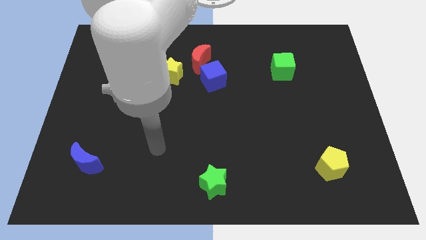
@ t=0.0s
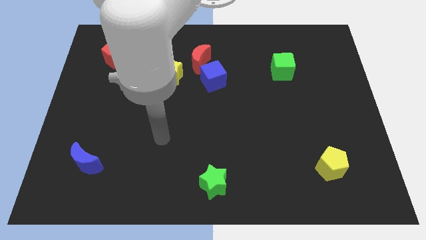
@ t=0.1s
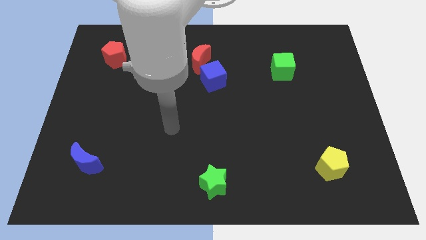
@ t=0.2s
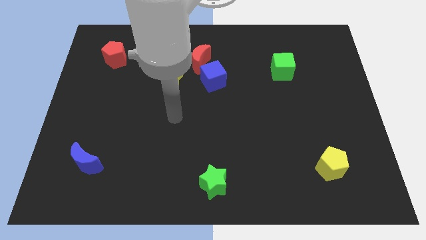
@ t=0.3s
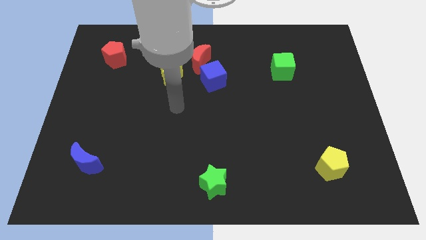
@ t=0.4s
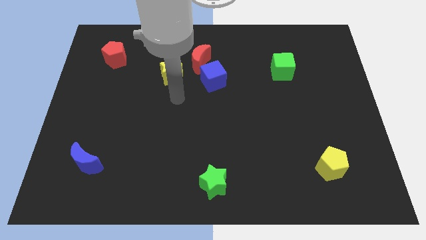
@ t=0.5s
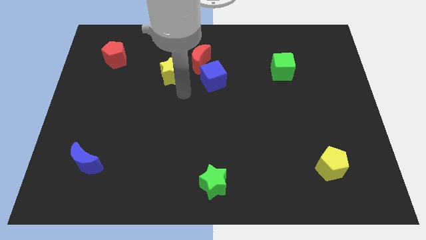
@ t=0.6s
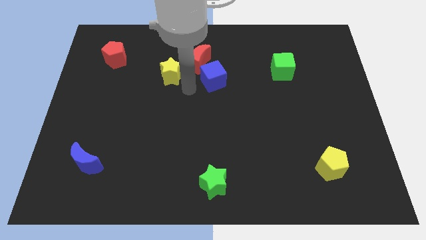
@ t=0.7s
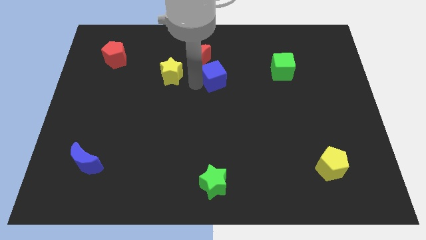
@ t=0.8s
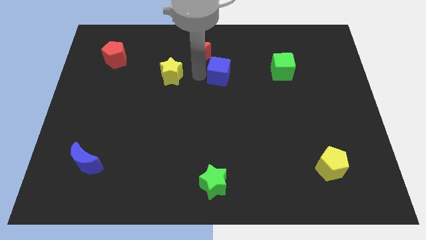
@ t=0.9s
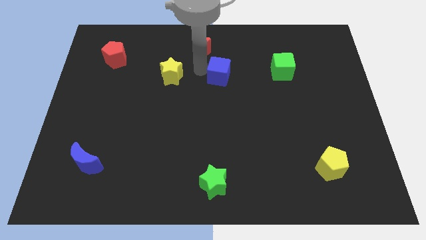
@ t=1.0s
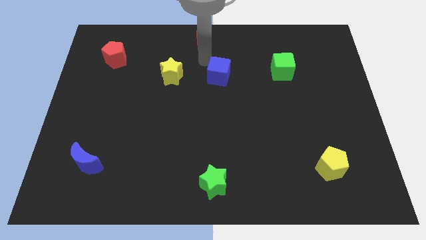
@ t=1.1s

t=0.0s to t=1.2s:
move the blue cube away from the red moon

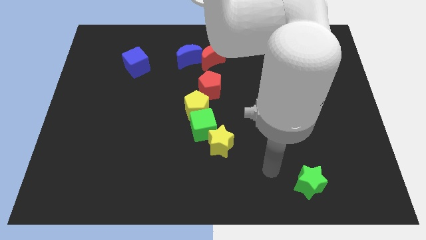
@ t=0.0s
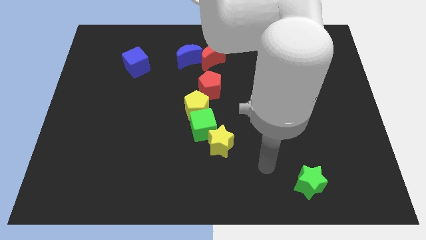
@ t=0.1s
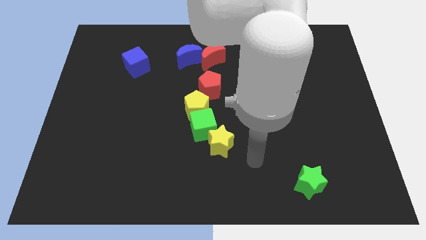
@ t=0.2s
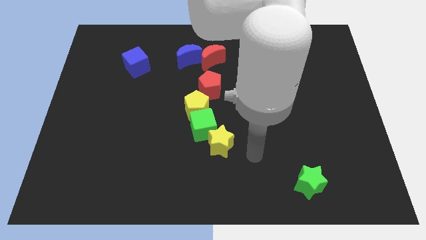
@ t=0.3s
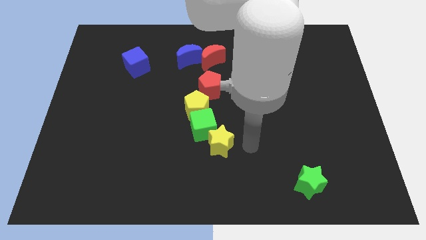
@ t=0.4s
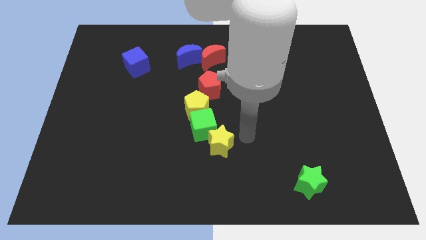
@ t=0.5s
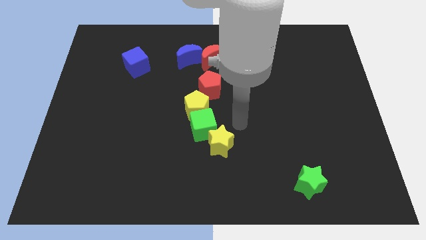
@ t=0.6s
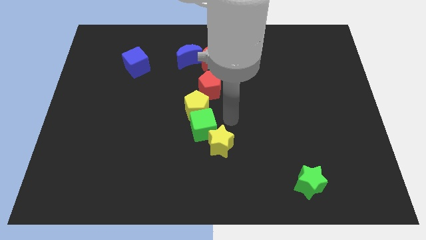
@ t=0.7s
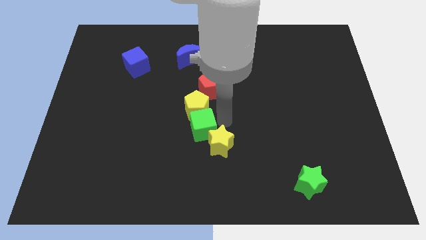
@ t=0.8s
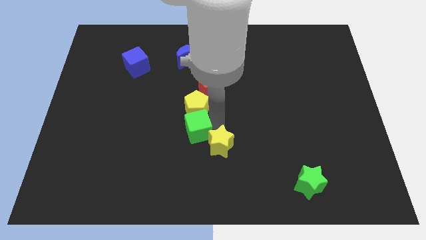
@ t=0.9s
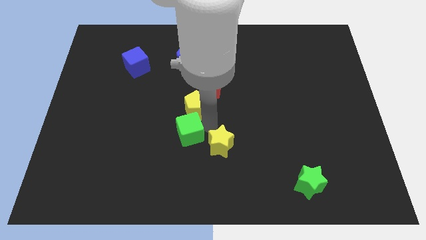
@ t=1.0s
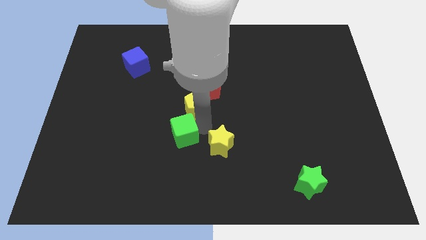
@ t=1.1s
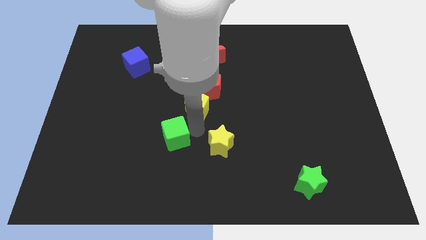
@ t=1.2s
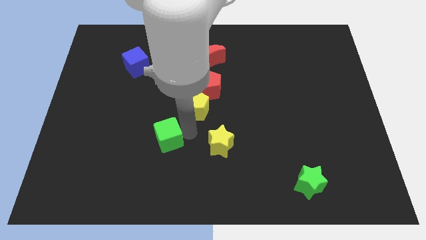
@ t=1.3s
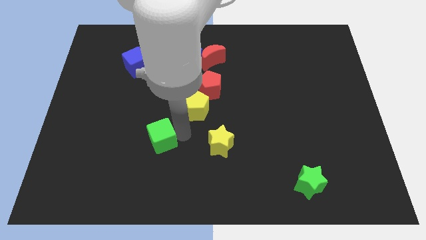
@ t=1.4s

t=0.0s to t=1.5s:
separate the green cube from the yellow pentagon and yellow star

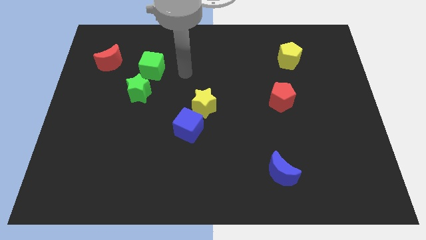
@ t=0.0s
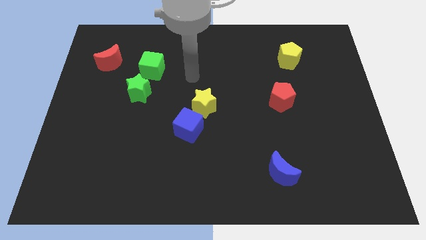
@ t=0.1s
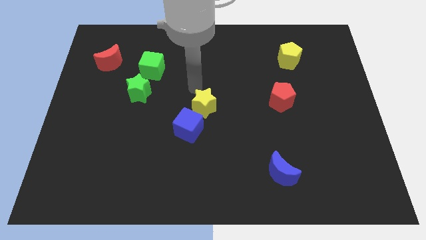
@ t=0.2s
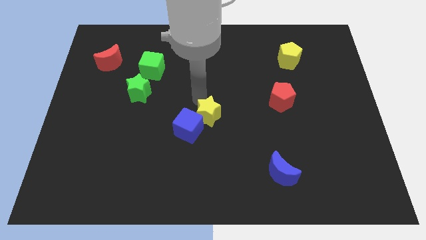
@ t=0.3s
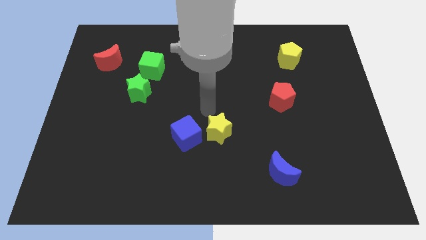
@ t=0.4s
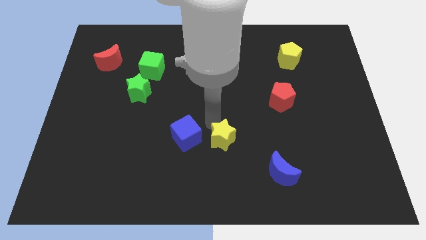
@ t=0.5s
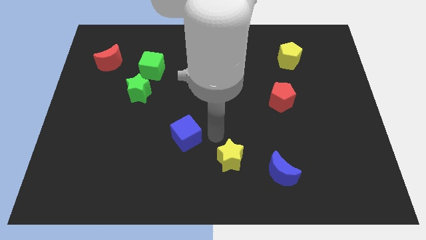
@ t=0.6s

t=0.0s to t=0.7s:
move the blue cube away from the yellow star

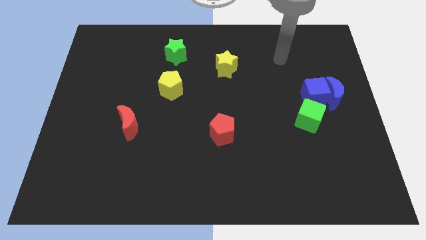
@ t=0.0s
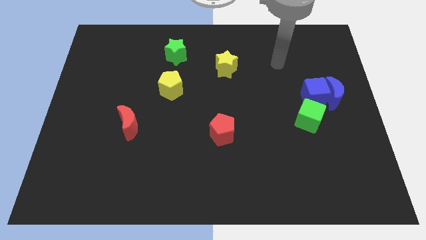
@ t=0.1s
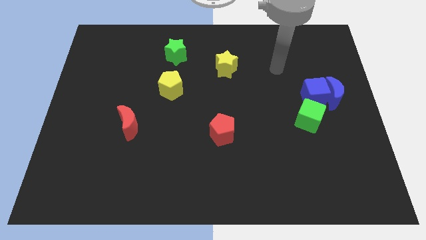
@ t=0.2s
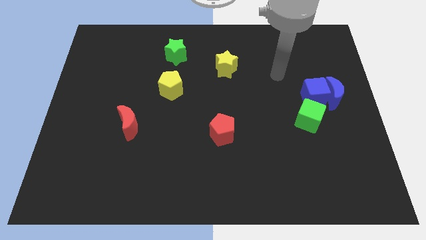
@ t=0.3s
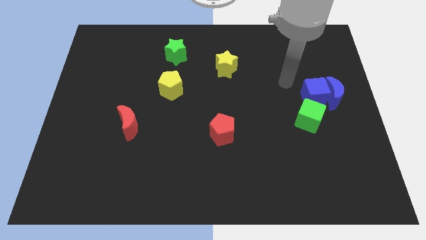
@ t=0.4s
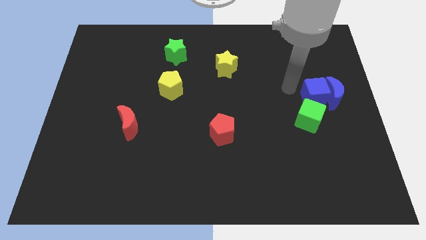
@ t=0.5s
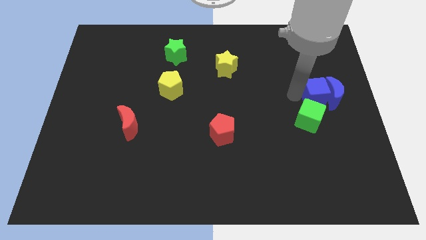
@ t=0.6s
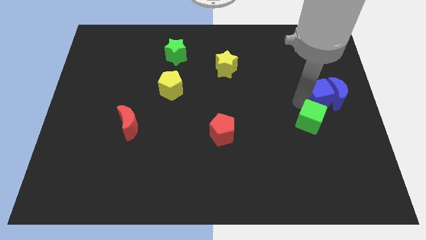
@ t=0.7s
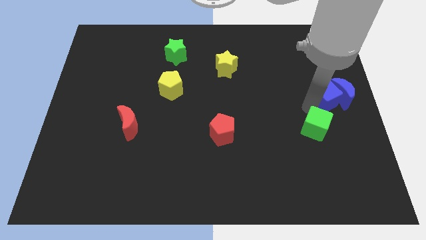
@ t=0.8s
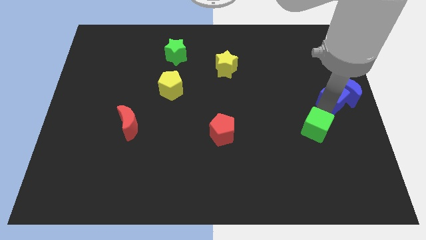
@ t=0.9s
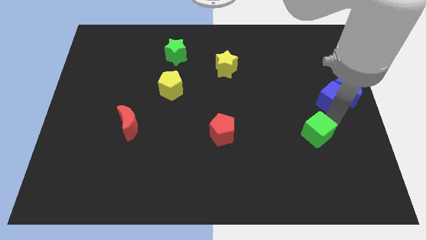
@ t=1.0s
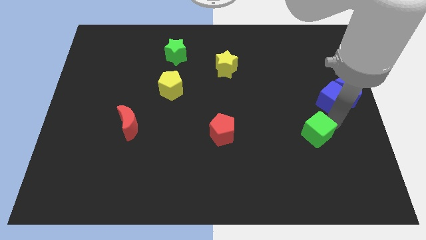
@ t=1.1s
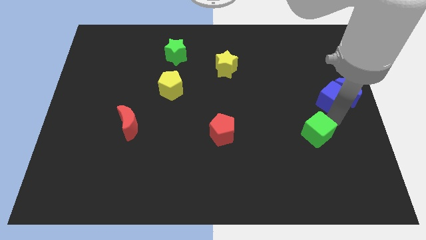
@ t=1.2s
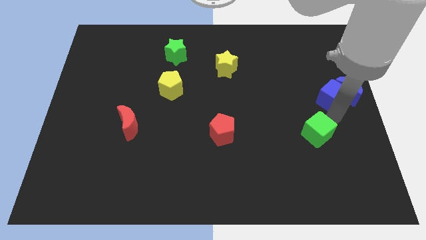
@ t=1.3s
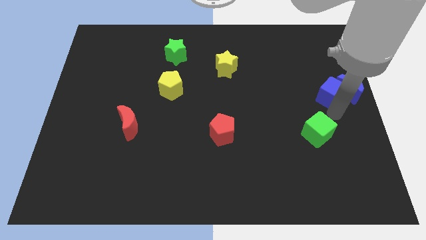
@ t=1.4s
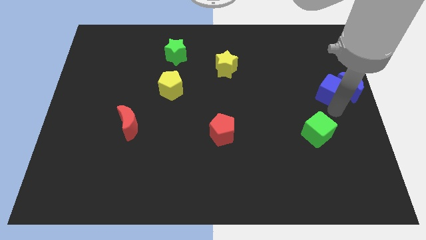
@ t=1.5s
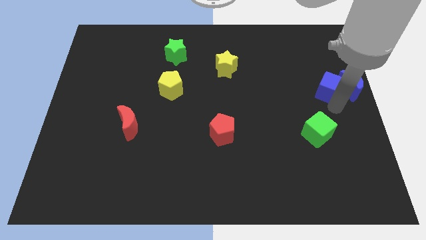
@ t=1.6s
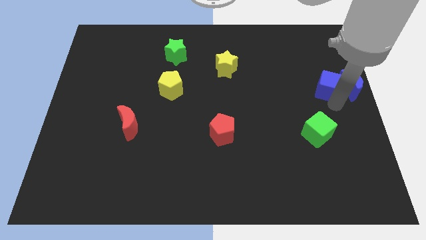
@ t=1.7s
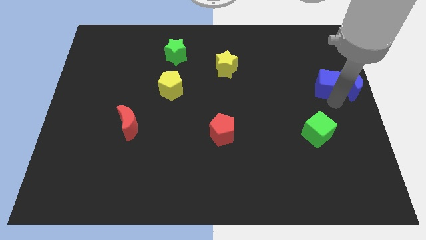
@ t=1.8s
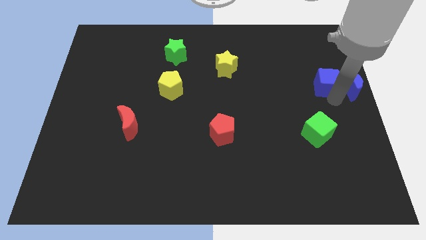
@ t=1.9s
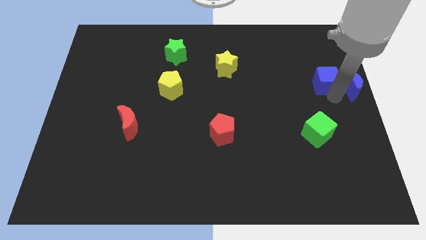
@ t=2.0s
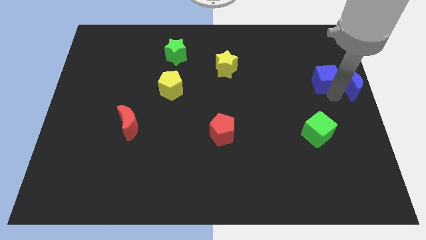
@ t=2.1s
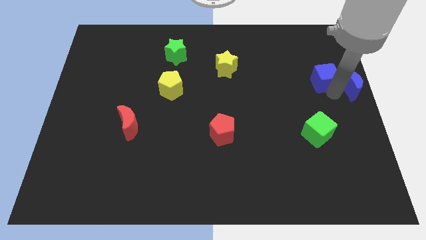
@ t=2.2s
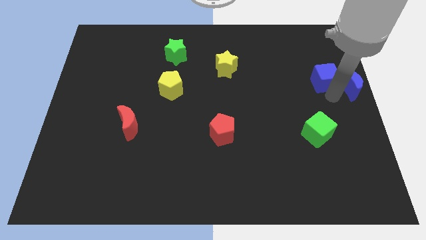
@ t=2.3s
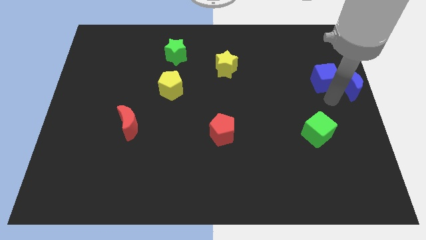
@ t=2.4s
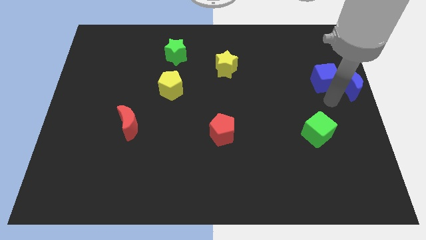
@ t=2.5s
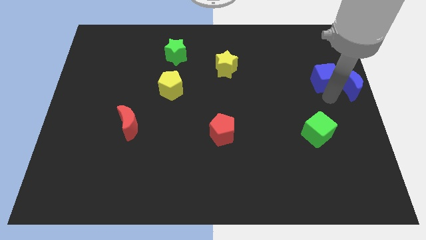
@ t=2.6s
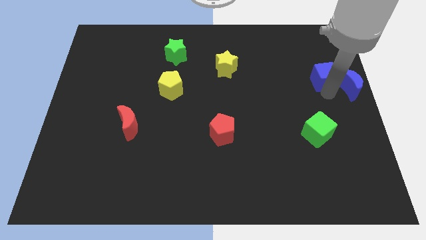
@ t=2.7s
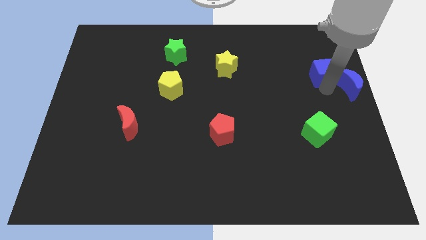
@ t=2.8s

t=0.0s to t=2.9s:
separate the blue cube from the blue moon and green cube

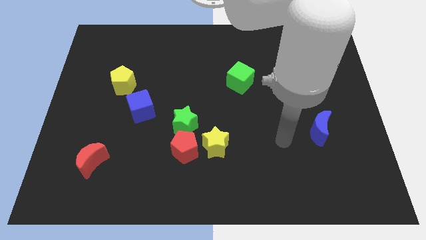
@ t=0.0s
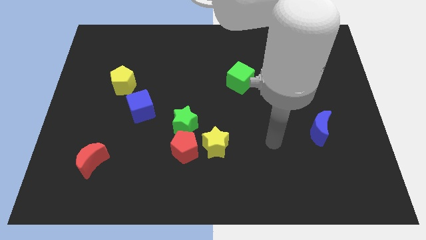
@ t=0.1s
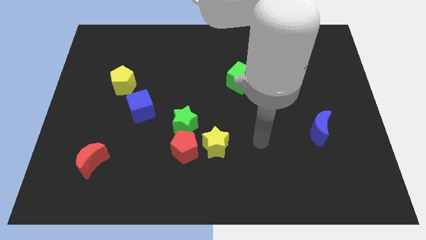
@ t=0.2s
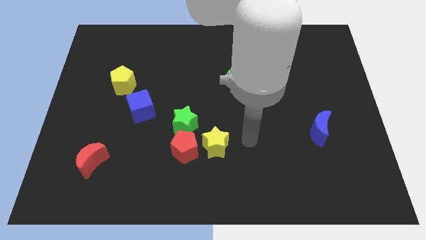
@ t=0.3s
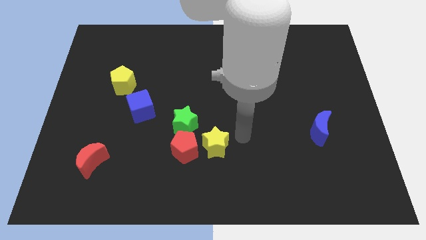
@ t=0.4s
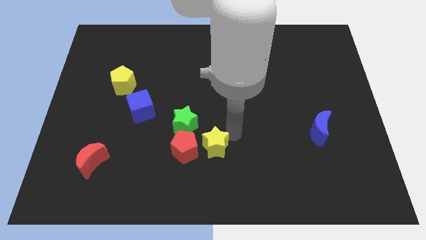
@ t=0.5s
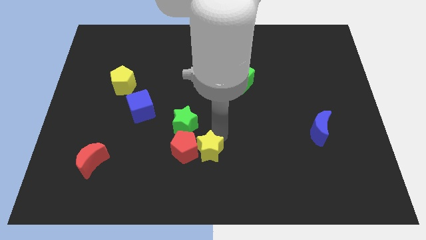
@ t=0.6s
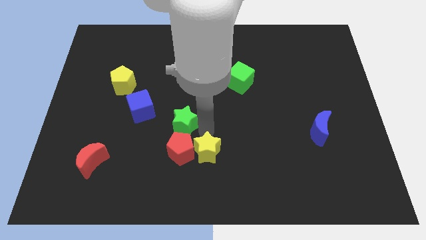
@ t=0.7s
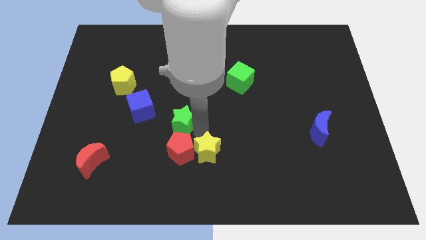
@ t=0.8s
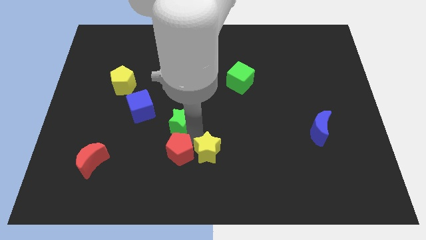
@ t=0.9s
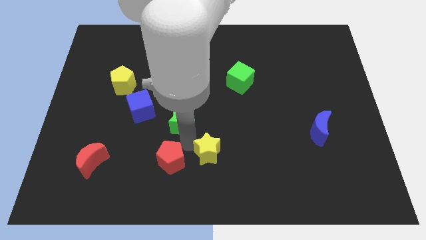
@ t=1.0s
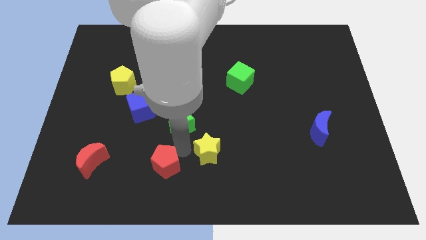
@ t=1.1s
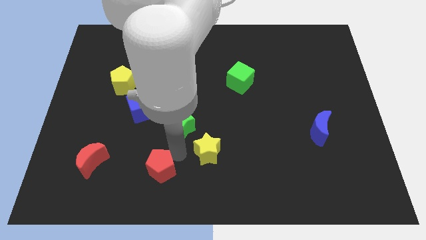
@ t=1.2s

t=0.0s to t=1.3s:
separate the red pentagon from the yellow star and green star

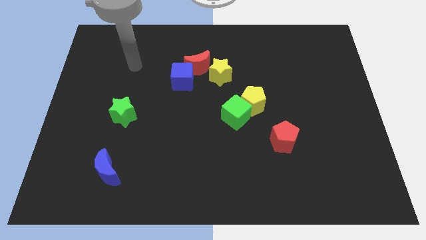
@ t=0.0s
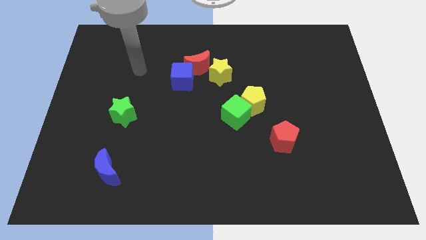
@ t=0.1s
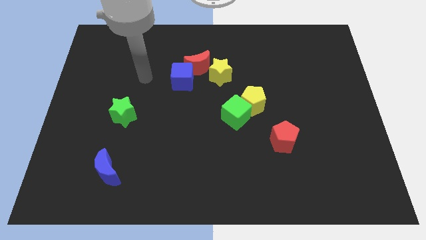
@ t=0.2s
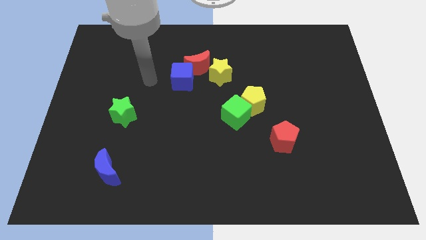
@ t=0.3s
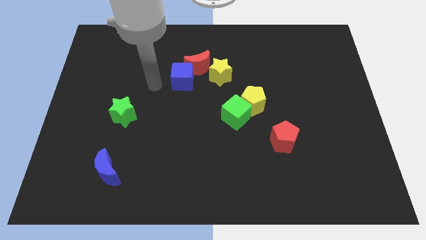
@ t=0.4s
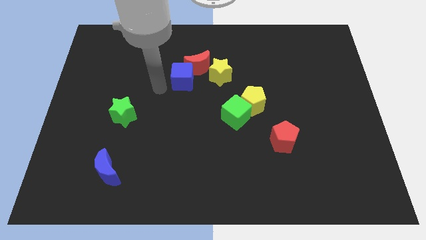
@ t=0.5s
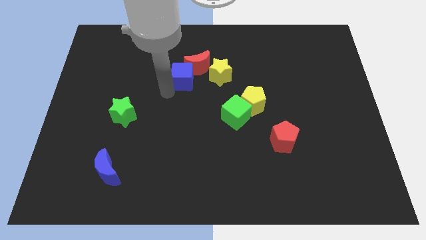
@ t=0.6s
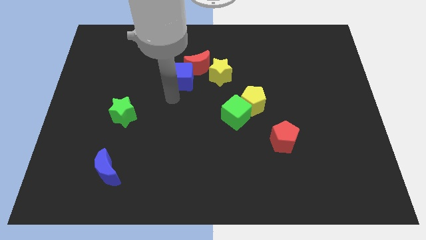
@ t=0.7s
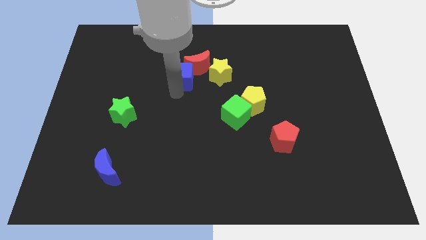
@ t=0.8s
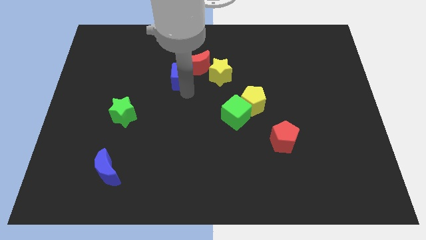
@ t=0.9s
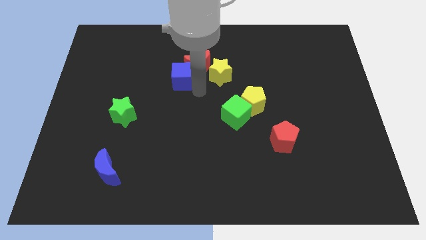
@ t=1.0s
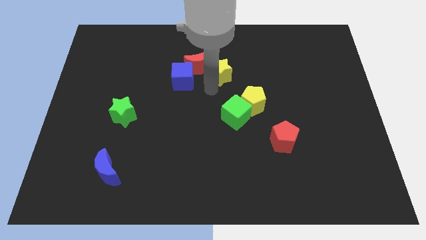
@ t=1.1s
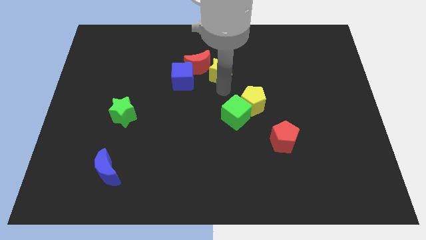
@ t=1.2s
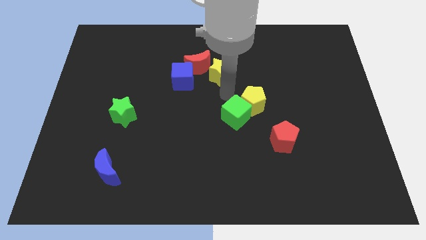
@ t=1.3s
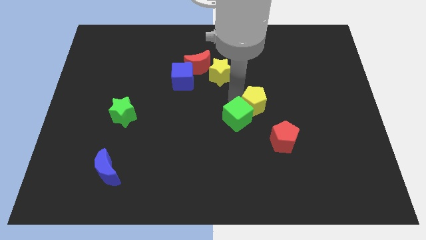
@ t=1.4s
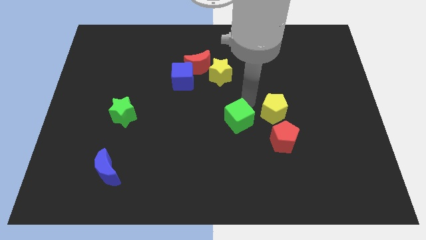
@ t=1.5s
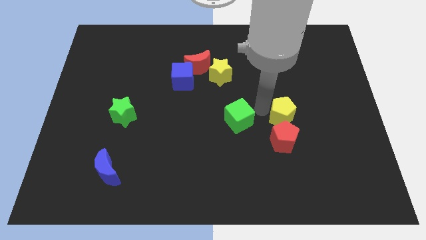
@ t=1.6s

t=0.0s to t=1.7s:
separate the green cube from the yellow pentagon
